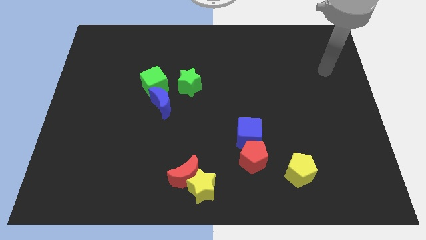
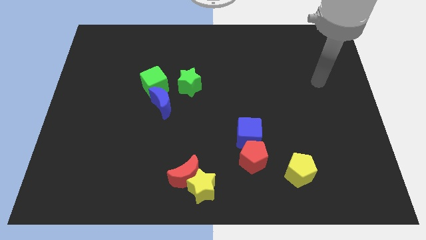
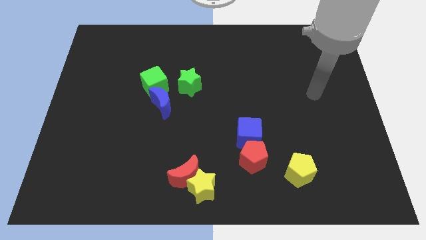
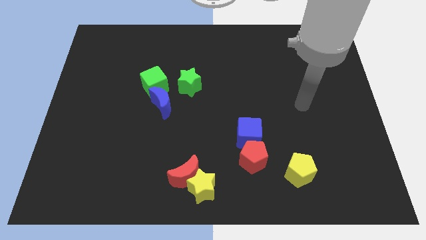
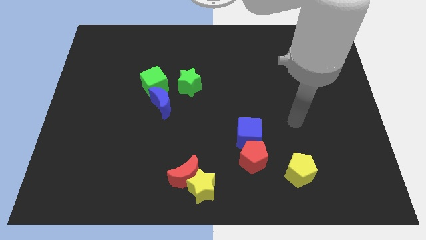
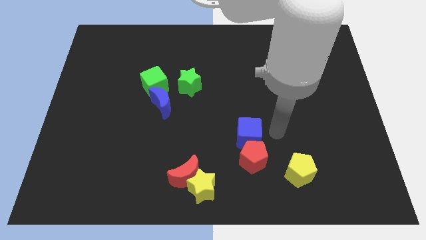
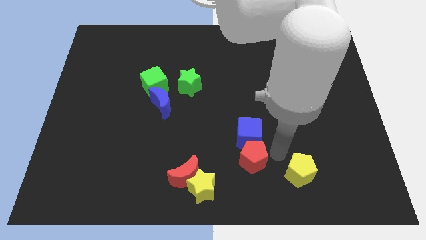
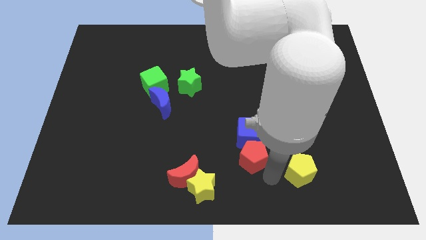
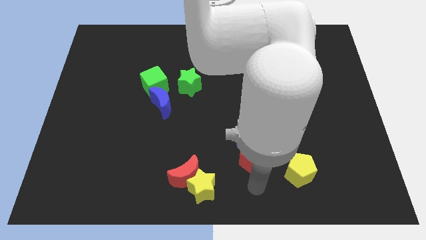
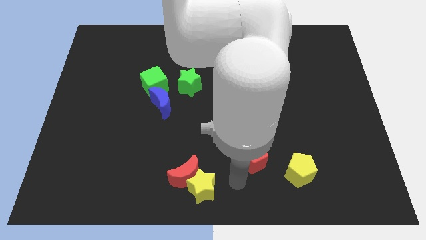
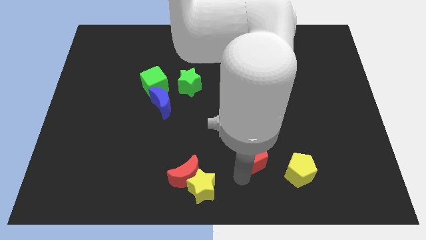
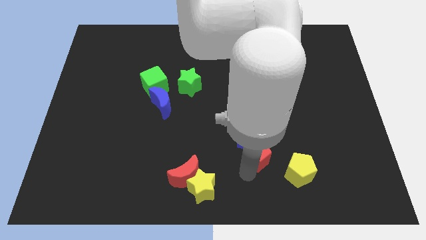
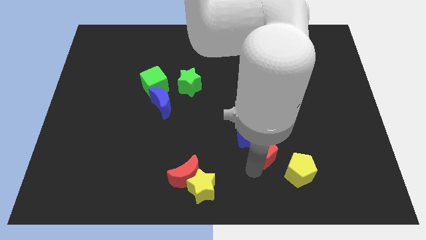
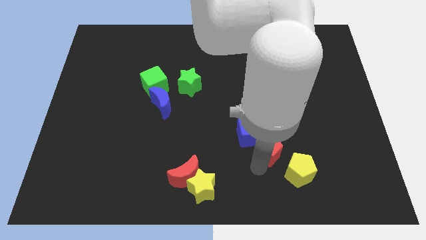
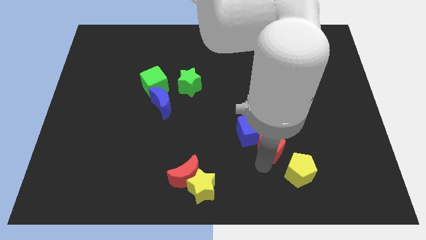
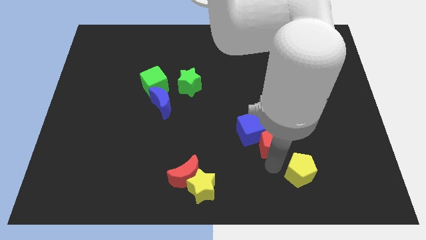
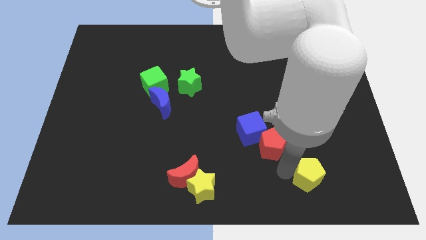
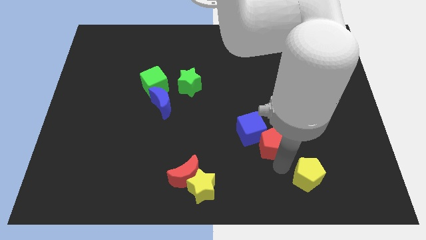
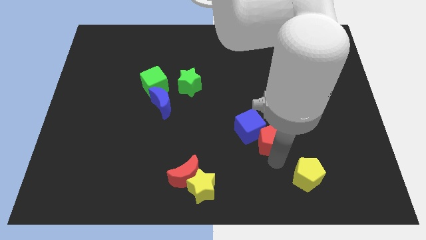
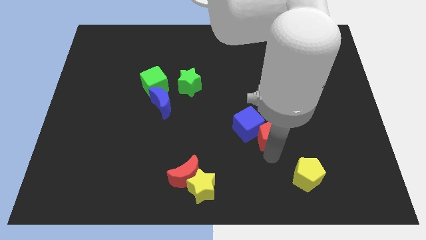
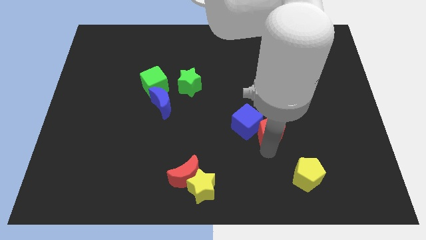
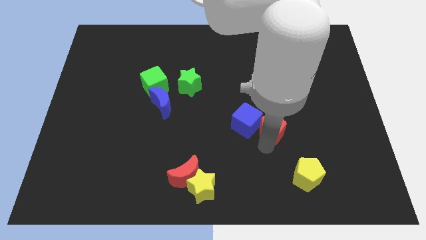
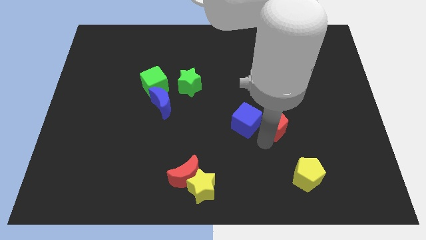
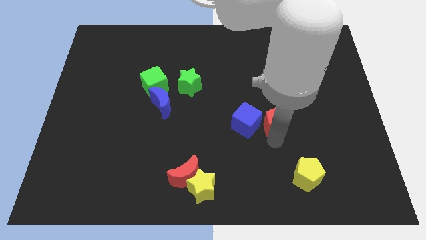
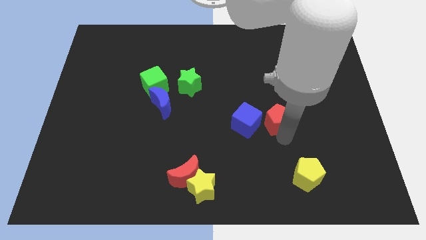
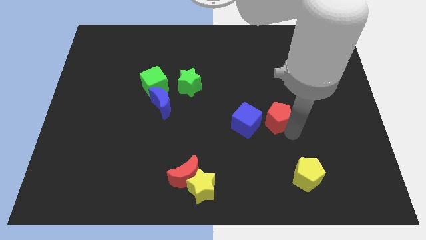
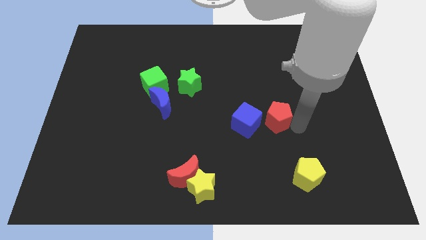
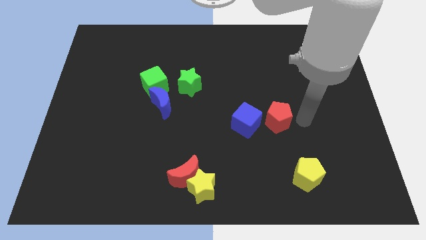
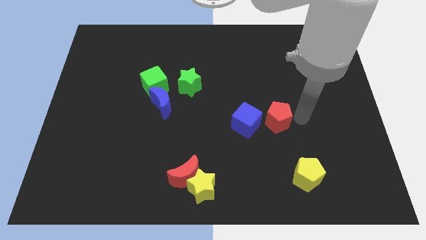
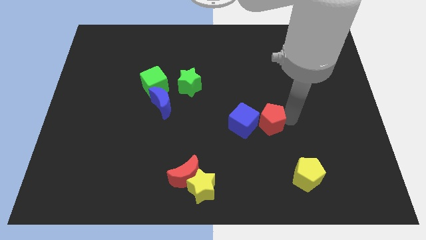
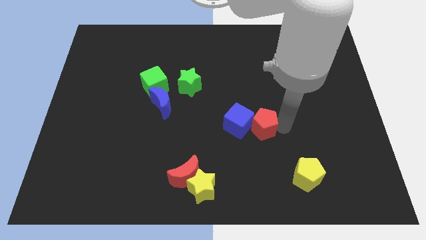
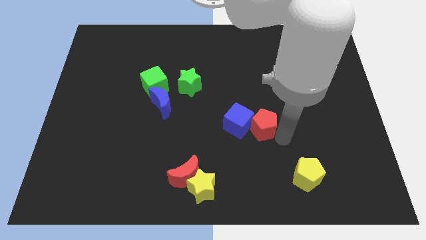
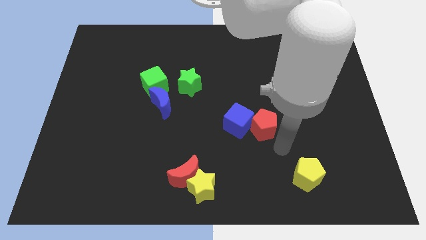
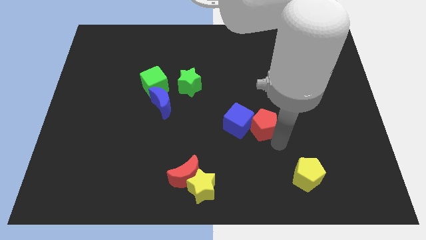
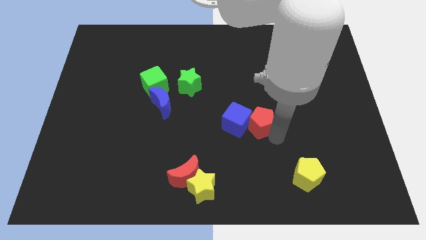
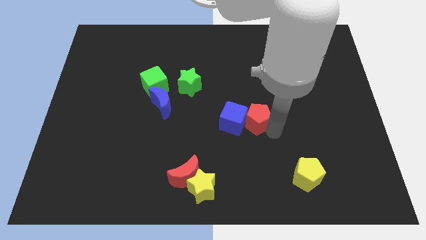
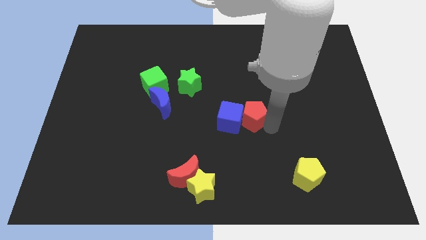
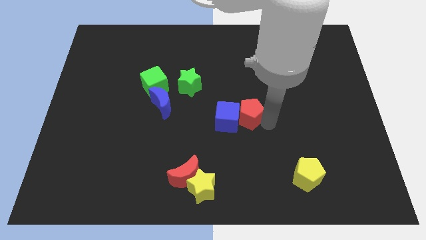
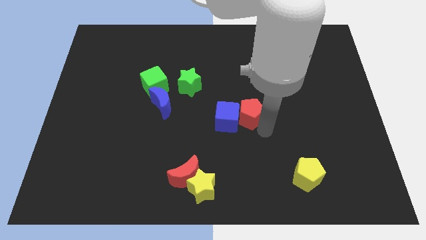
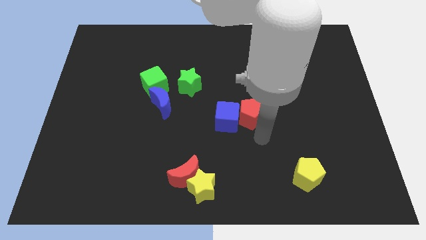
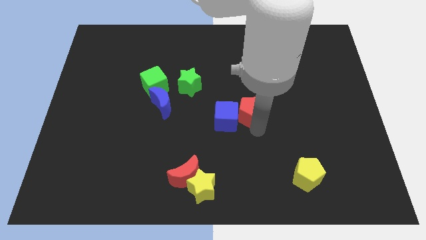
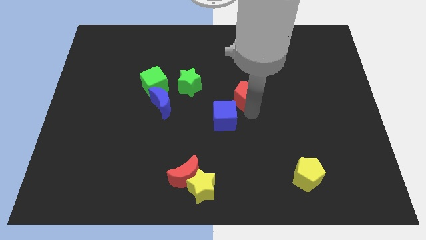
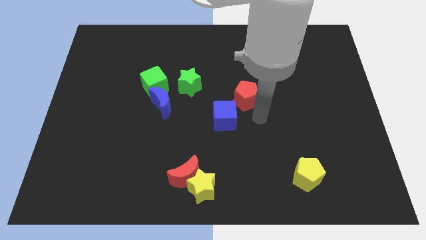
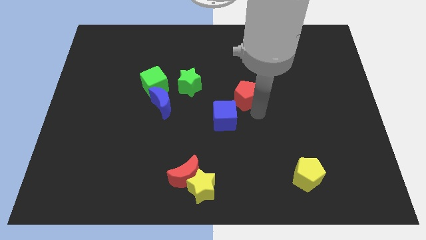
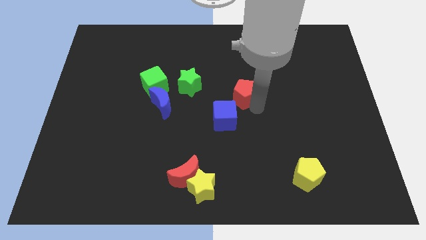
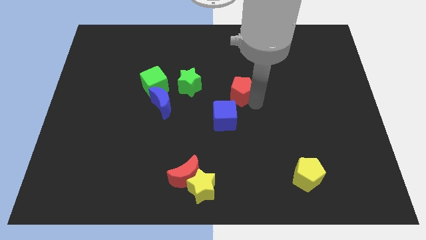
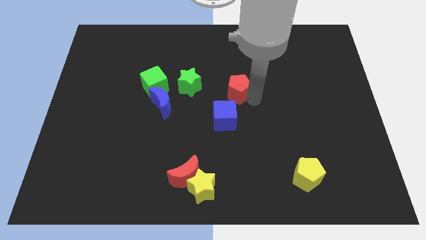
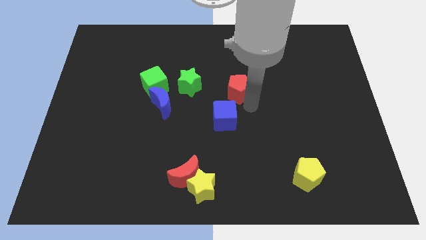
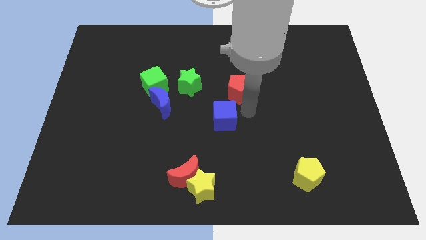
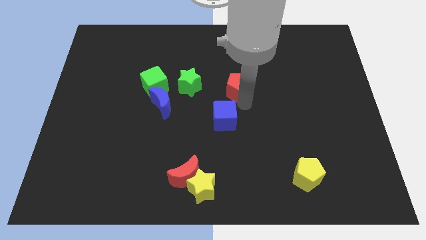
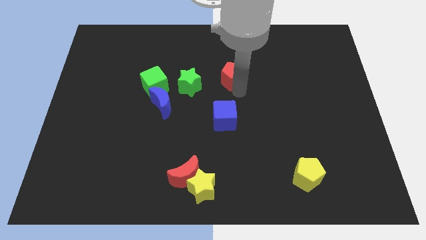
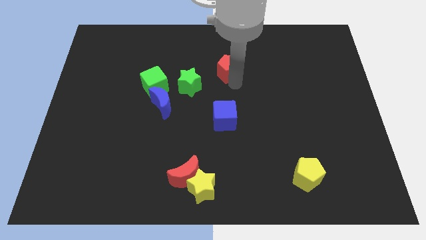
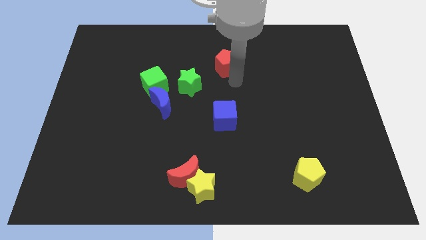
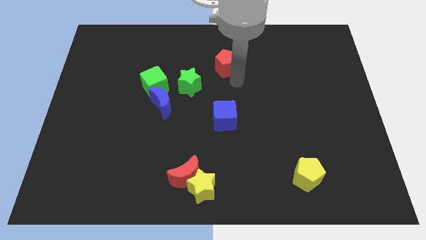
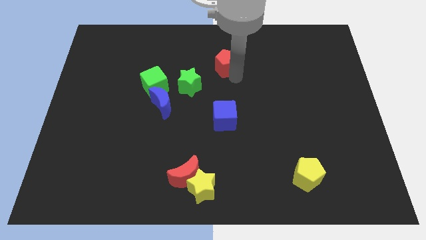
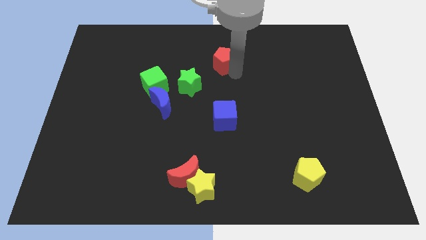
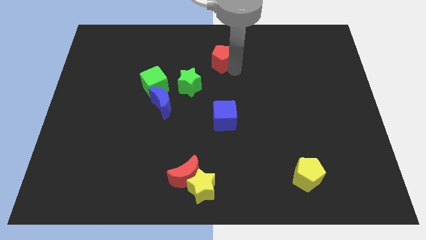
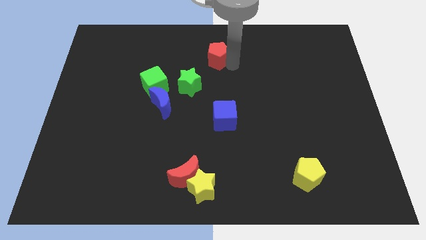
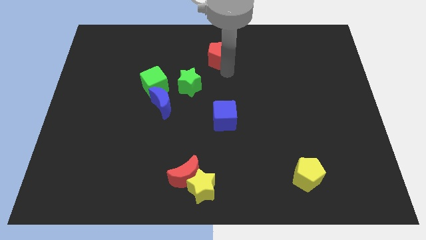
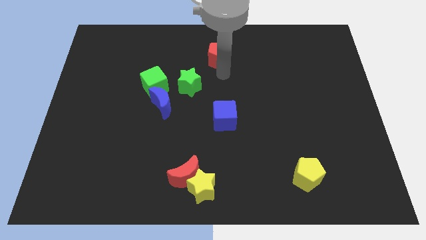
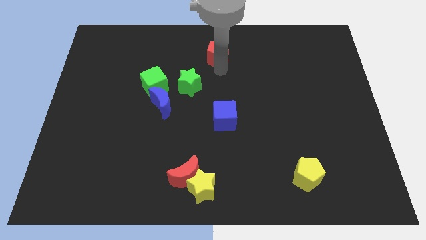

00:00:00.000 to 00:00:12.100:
push the red pentagon to the top
